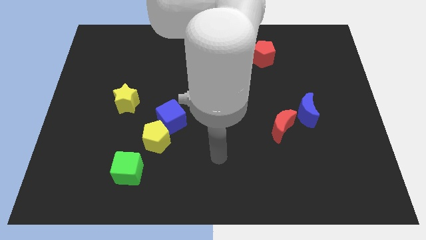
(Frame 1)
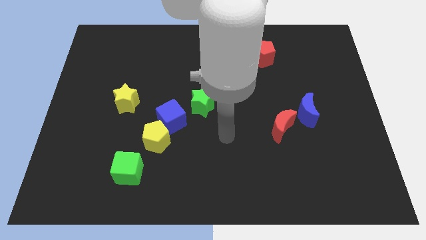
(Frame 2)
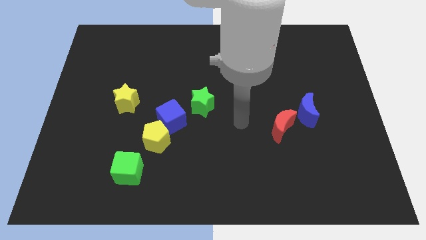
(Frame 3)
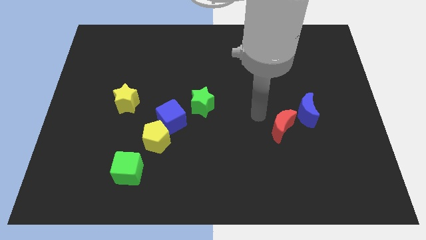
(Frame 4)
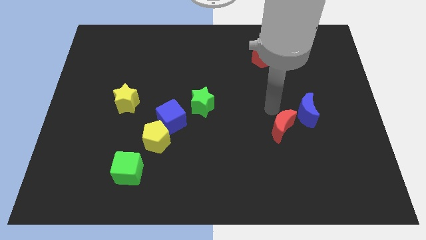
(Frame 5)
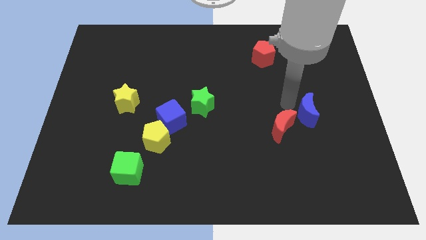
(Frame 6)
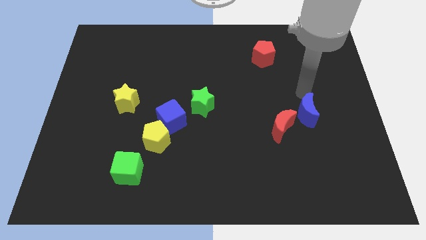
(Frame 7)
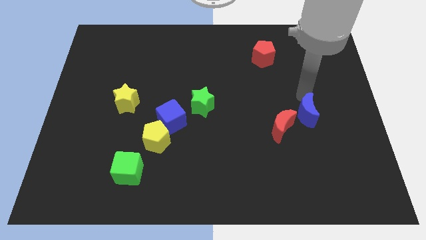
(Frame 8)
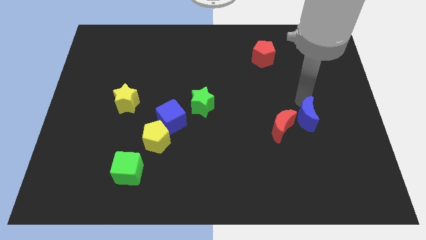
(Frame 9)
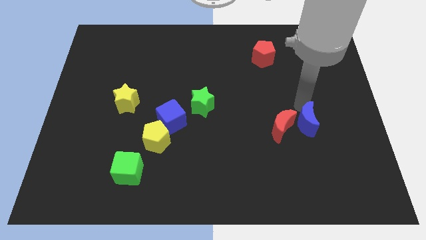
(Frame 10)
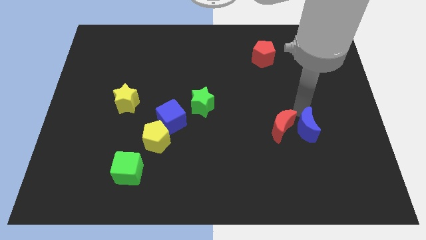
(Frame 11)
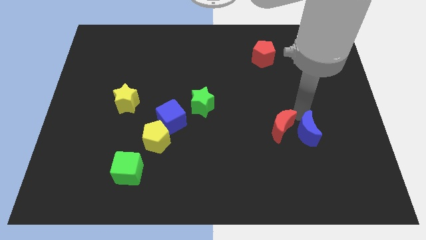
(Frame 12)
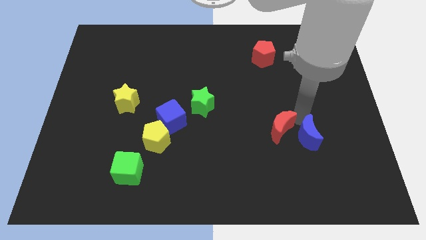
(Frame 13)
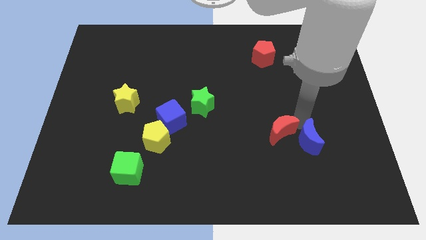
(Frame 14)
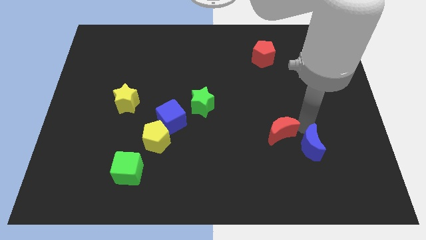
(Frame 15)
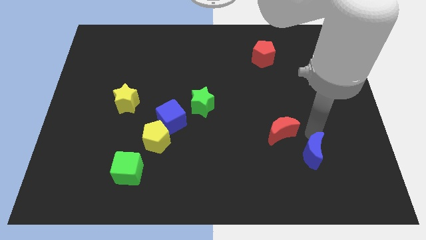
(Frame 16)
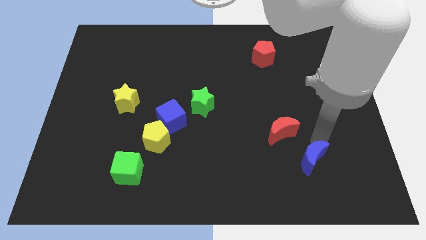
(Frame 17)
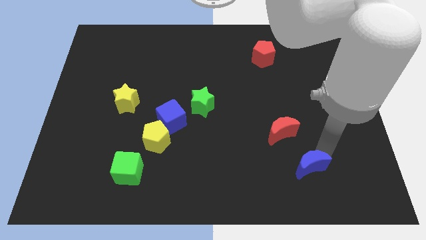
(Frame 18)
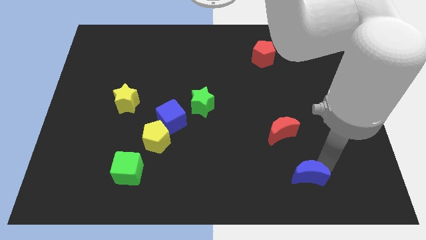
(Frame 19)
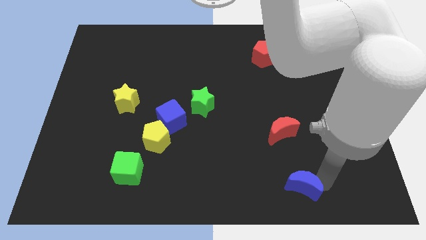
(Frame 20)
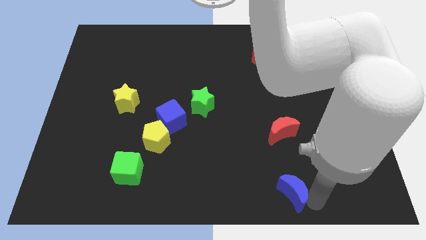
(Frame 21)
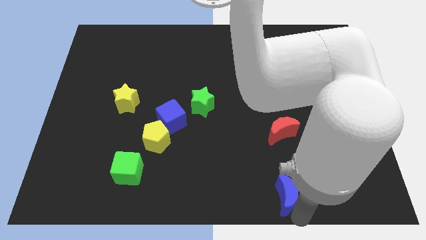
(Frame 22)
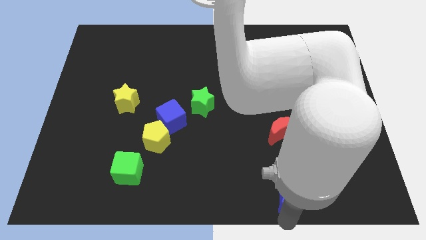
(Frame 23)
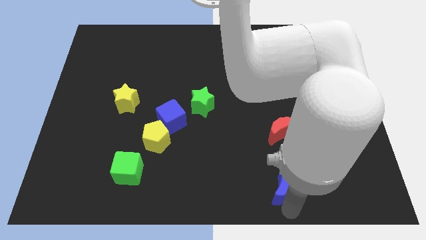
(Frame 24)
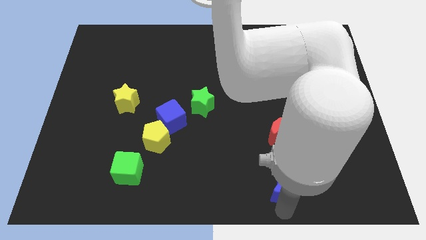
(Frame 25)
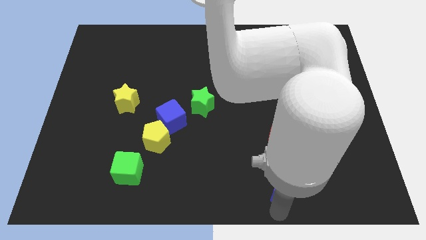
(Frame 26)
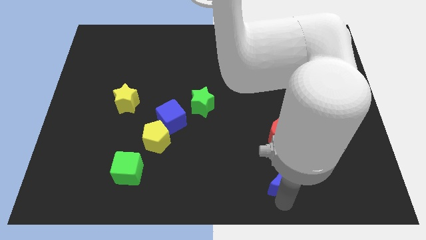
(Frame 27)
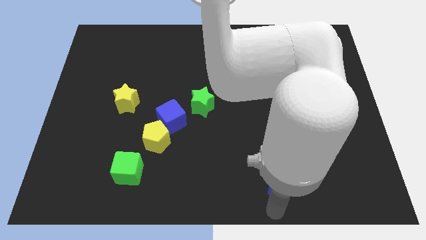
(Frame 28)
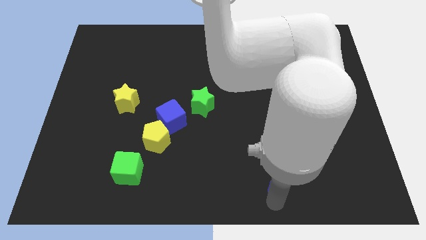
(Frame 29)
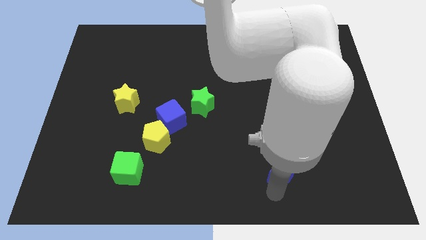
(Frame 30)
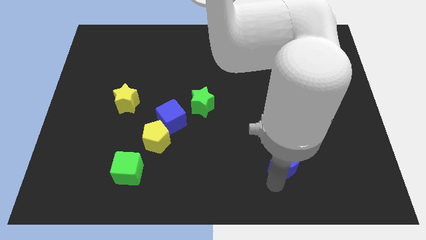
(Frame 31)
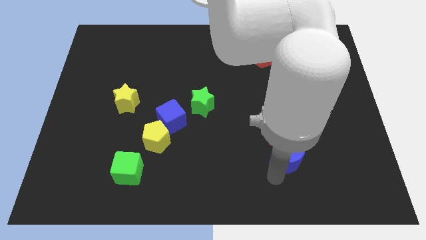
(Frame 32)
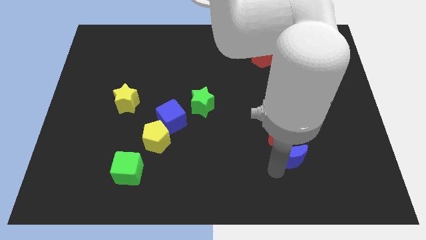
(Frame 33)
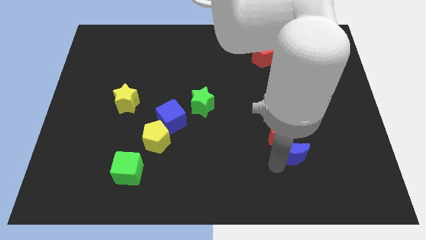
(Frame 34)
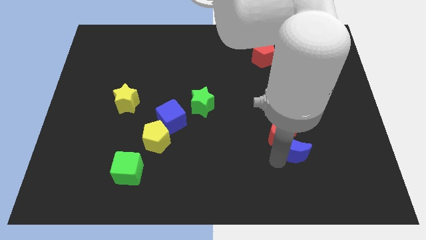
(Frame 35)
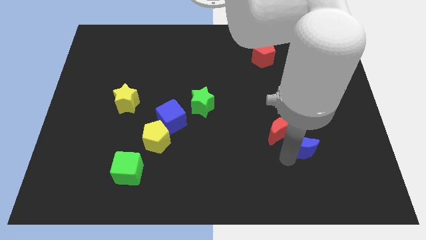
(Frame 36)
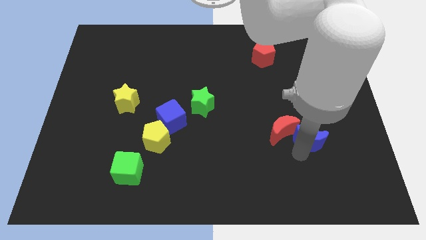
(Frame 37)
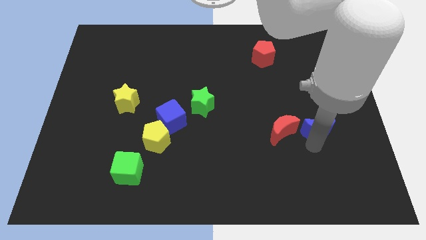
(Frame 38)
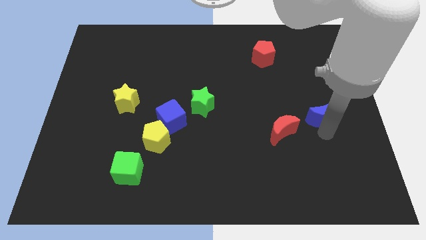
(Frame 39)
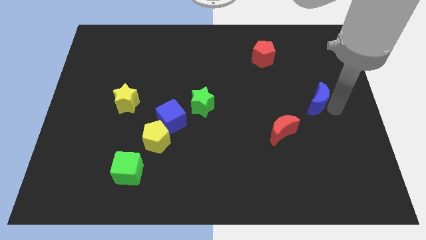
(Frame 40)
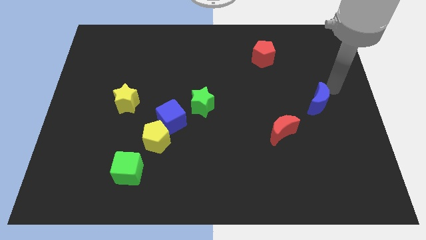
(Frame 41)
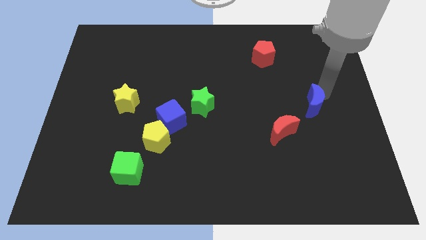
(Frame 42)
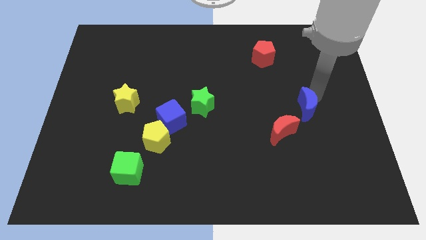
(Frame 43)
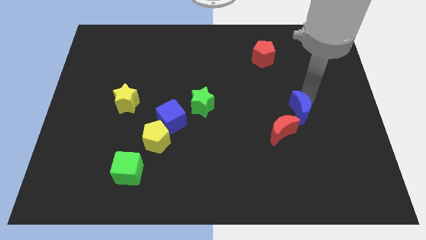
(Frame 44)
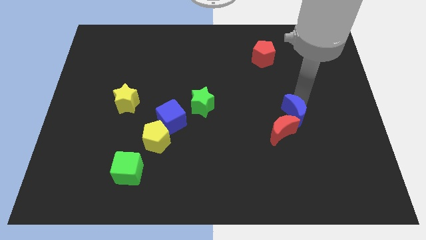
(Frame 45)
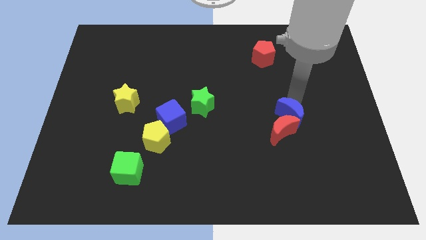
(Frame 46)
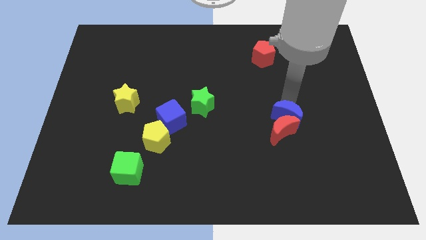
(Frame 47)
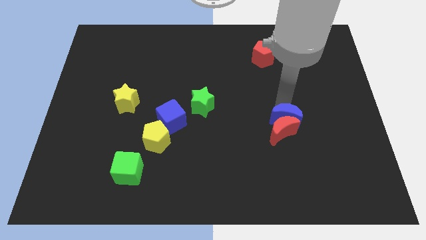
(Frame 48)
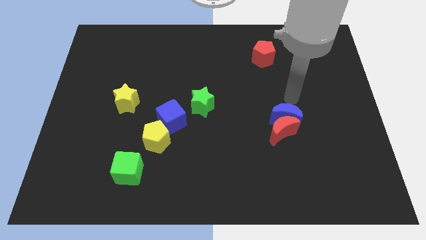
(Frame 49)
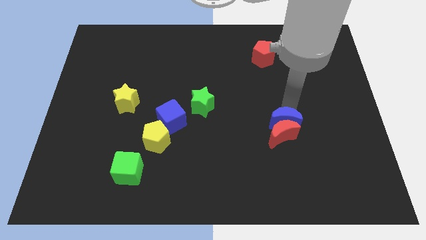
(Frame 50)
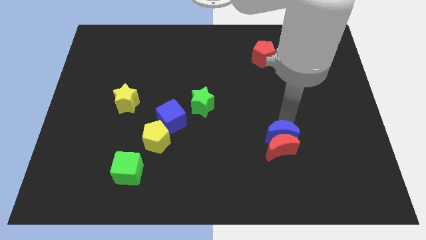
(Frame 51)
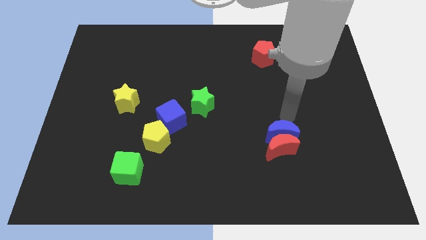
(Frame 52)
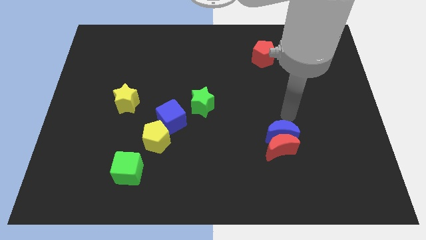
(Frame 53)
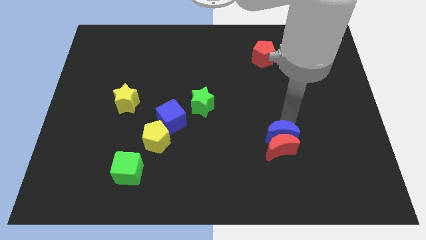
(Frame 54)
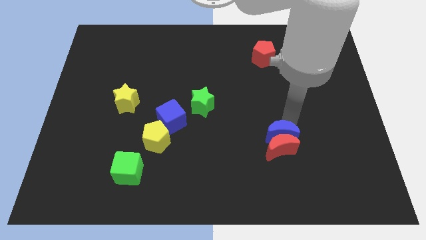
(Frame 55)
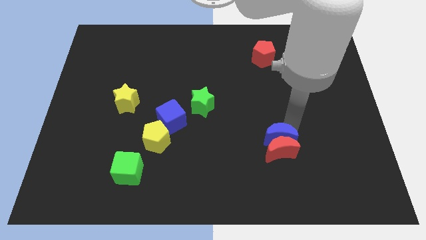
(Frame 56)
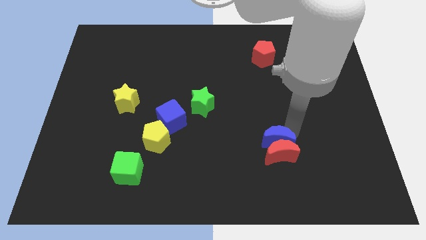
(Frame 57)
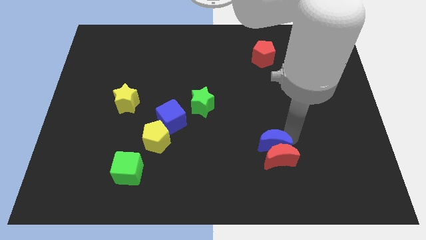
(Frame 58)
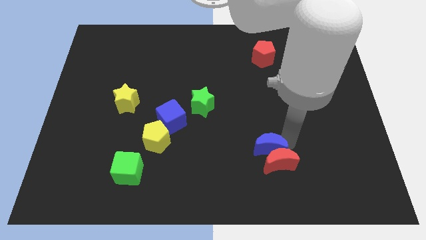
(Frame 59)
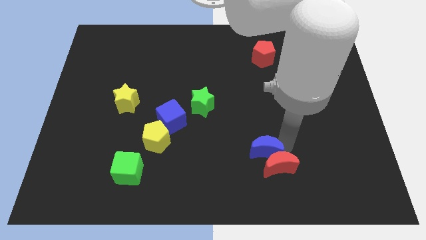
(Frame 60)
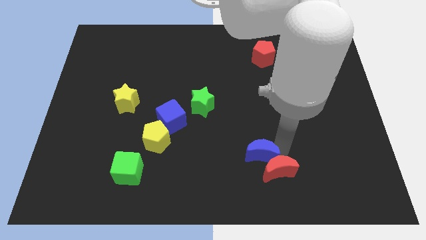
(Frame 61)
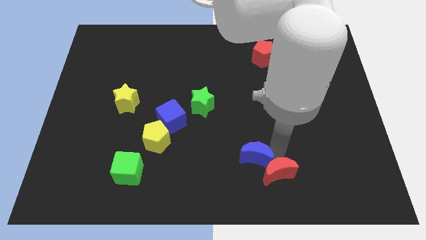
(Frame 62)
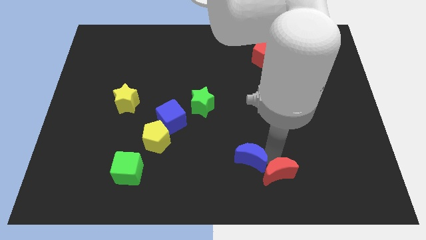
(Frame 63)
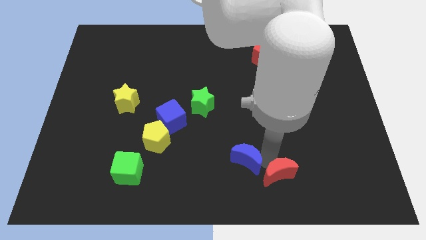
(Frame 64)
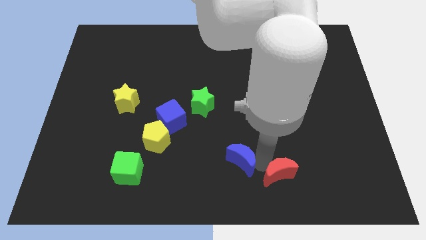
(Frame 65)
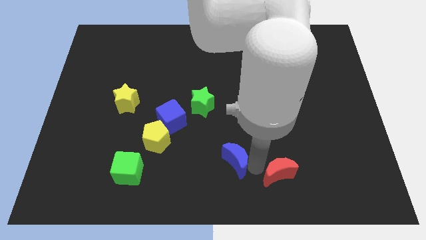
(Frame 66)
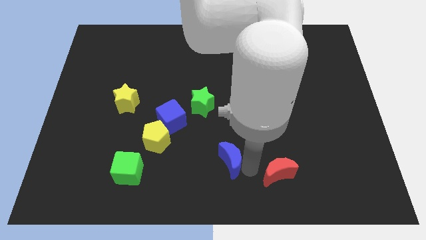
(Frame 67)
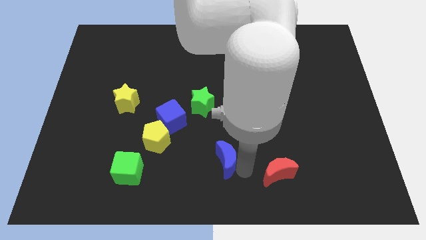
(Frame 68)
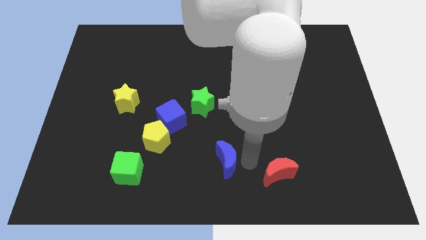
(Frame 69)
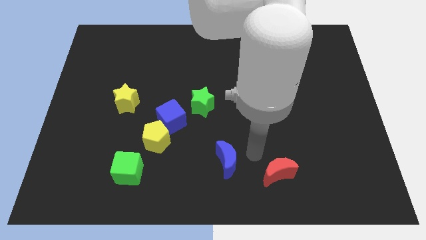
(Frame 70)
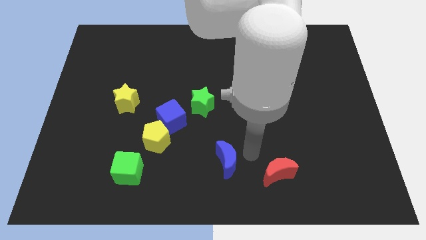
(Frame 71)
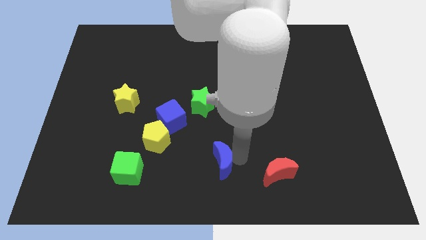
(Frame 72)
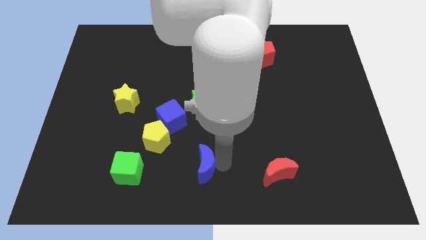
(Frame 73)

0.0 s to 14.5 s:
put the blue moon to the right of the green cube
